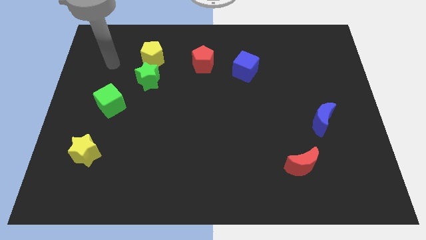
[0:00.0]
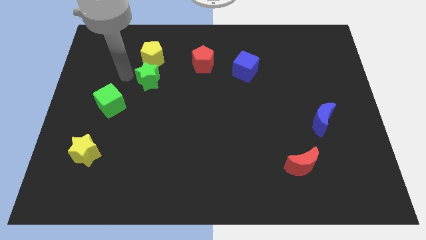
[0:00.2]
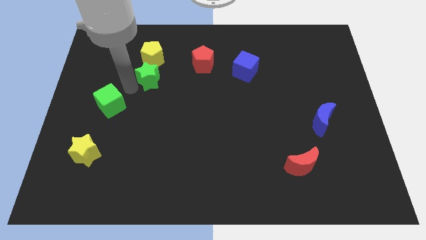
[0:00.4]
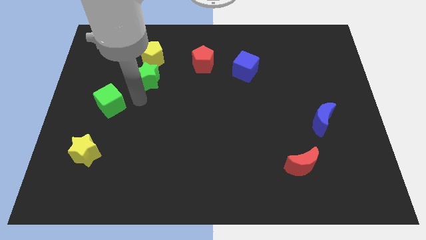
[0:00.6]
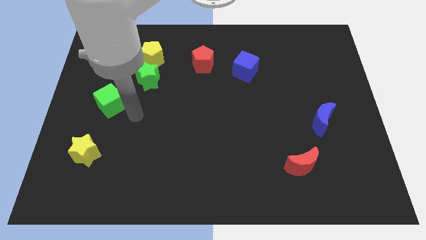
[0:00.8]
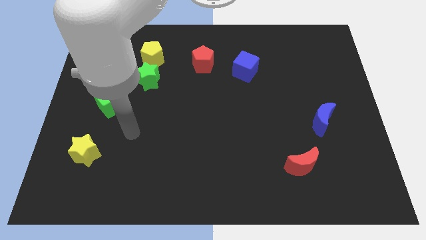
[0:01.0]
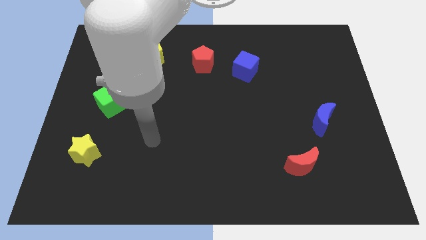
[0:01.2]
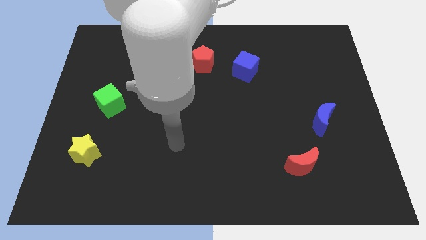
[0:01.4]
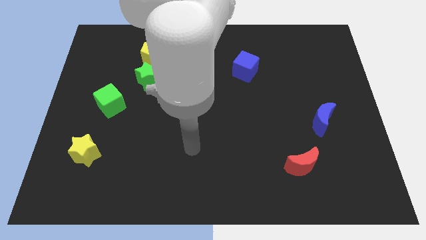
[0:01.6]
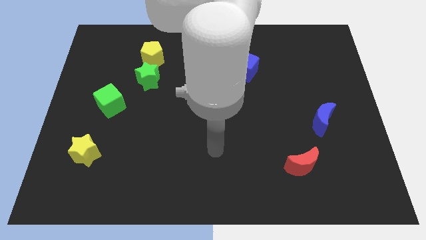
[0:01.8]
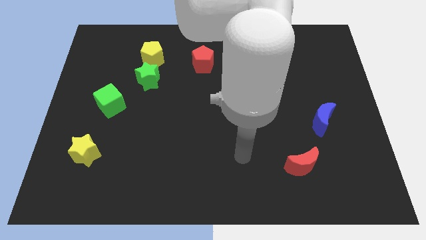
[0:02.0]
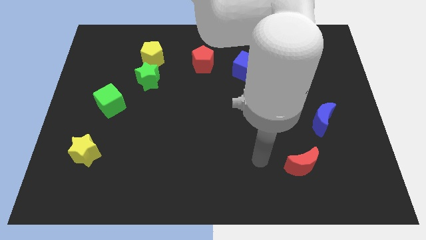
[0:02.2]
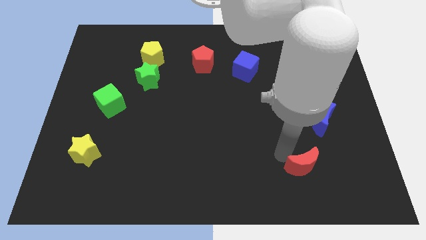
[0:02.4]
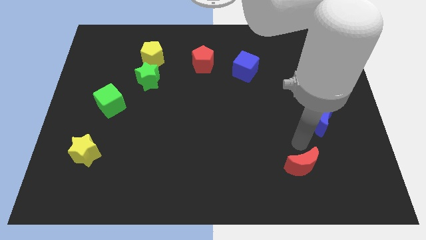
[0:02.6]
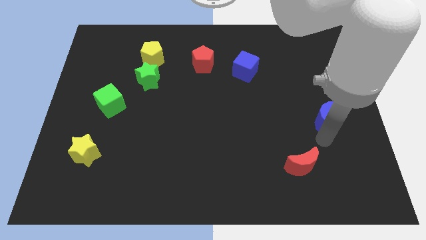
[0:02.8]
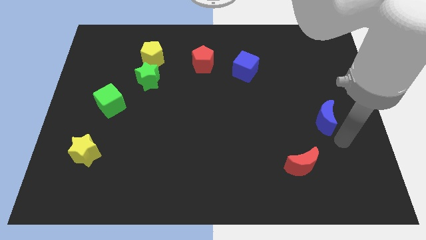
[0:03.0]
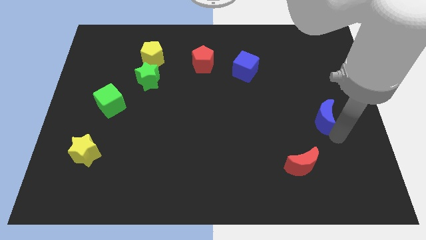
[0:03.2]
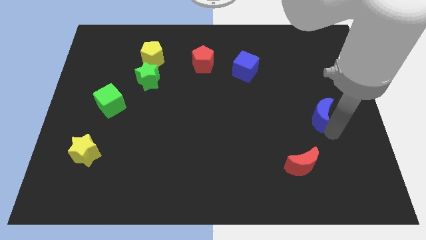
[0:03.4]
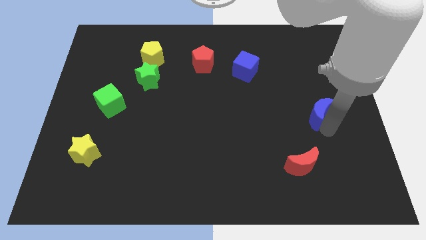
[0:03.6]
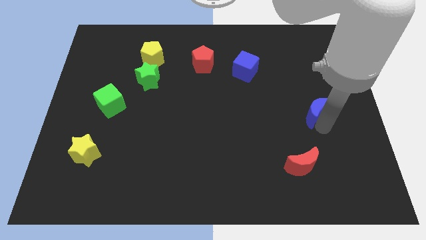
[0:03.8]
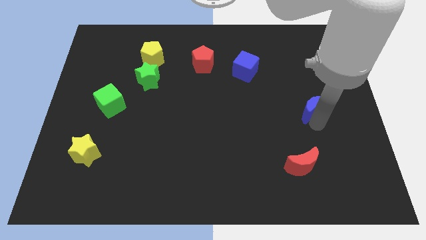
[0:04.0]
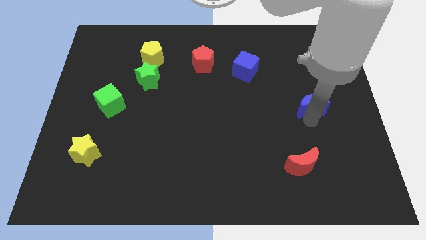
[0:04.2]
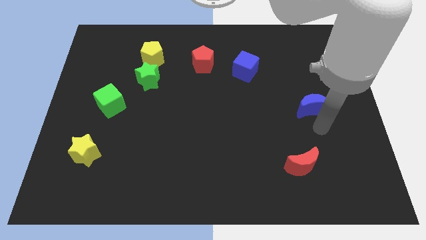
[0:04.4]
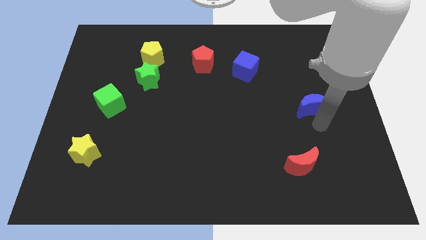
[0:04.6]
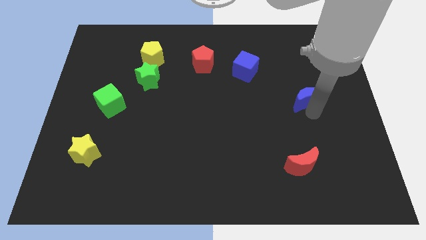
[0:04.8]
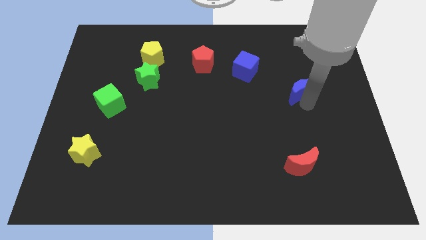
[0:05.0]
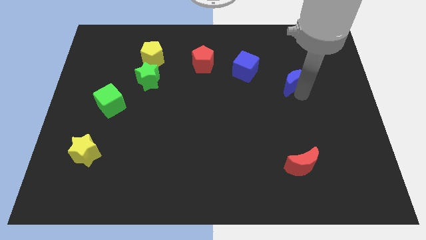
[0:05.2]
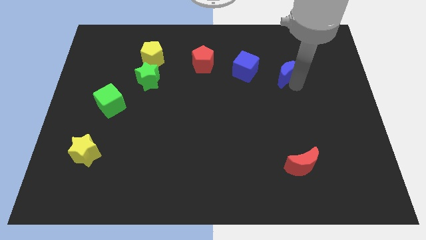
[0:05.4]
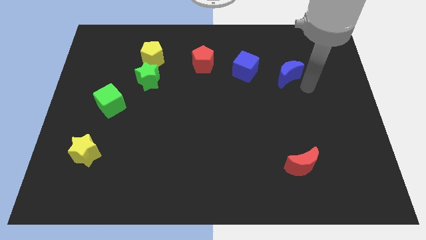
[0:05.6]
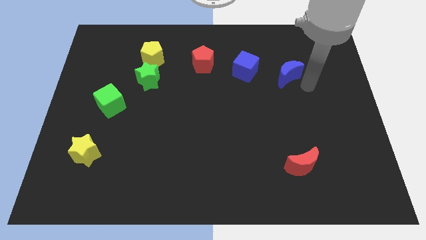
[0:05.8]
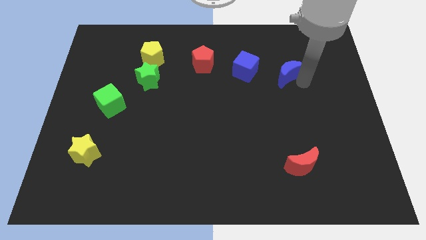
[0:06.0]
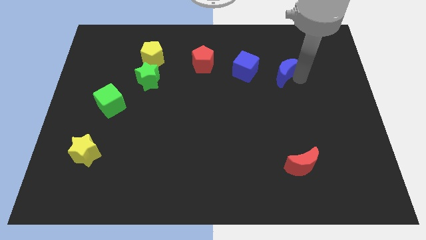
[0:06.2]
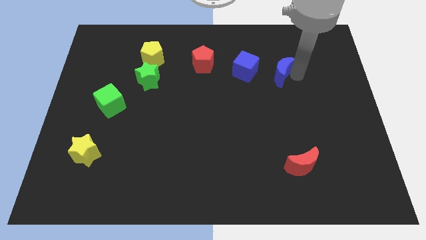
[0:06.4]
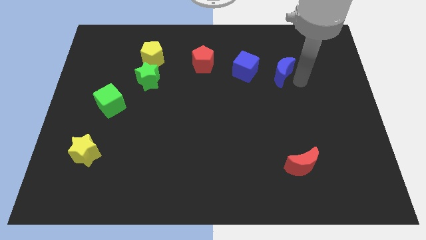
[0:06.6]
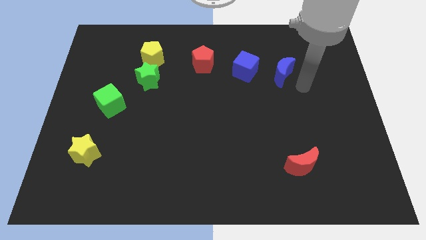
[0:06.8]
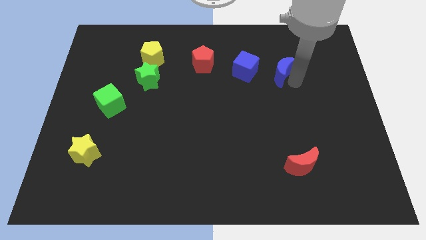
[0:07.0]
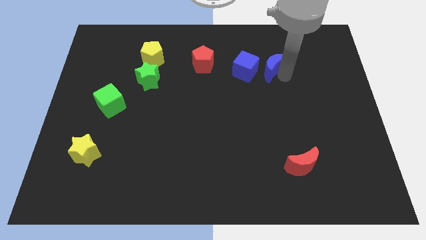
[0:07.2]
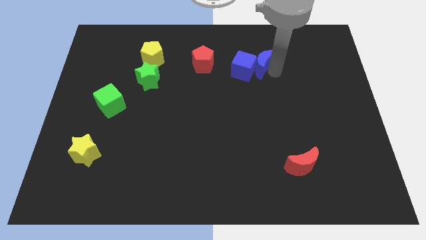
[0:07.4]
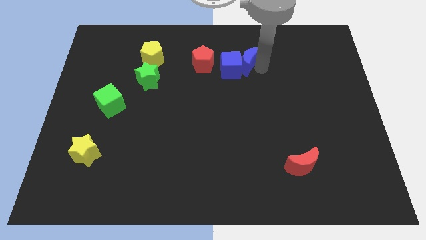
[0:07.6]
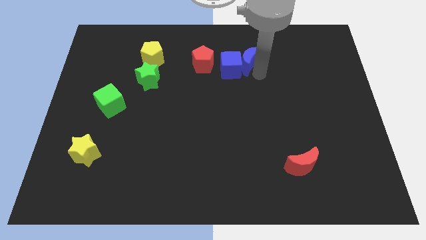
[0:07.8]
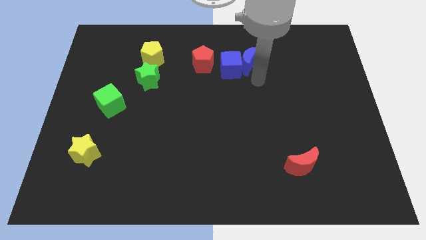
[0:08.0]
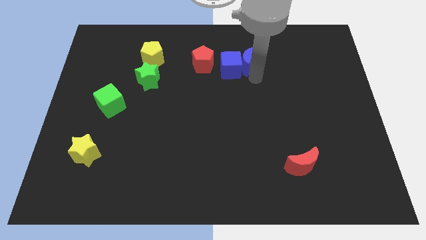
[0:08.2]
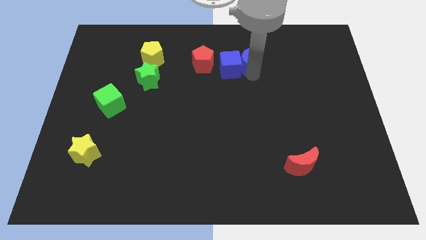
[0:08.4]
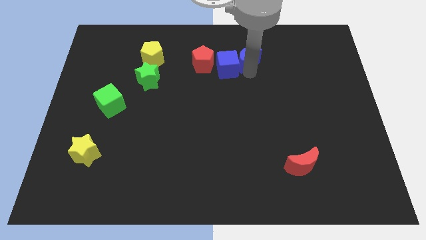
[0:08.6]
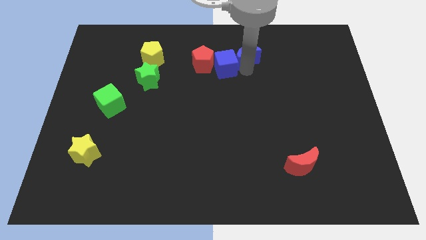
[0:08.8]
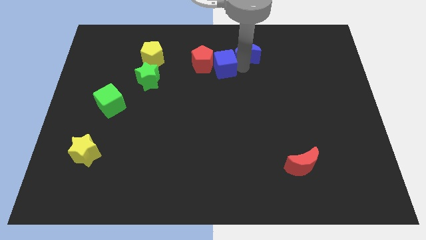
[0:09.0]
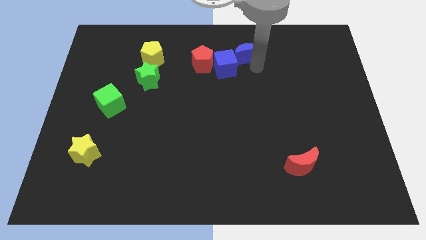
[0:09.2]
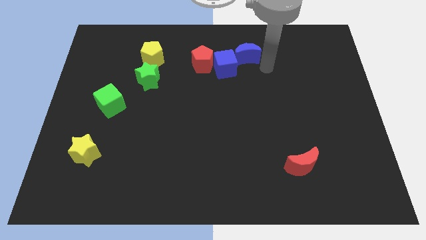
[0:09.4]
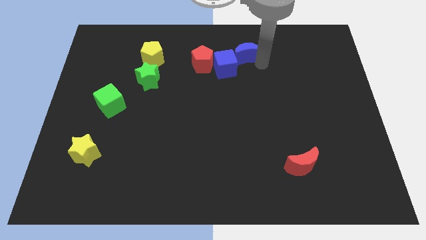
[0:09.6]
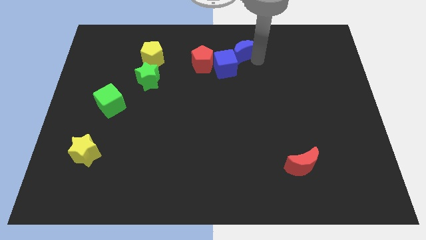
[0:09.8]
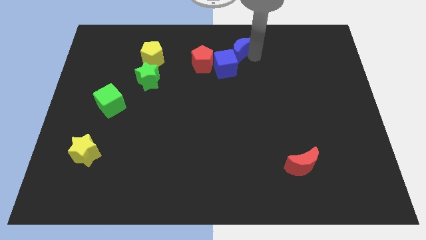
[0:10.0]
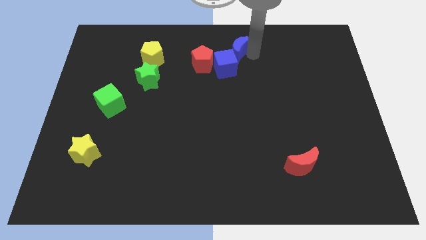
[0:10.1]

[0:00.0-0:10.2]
move the blue moon to the top side
